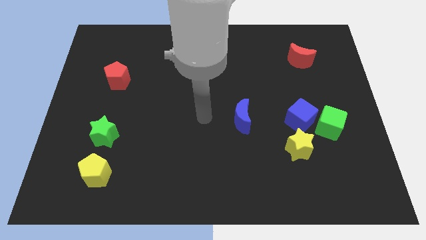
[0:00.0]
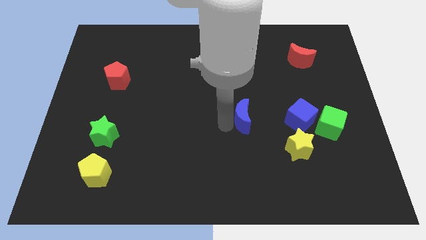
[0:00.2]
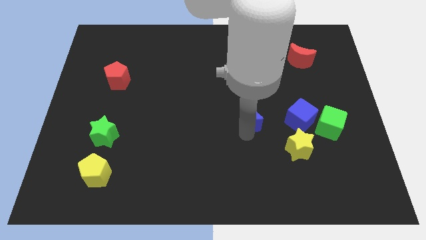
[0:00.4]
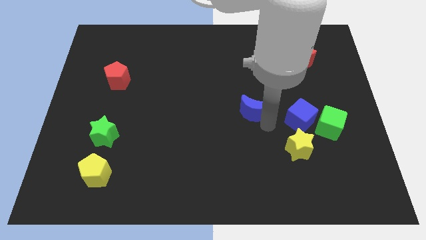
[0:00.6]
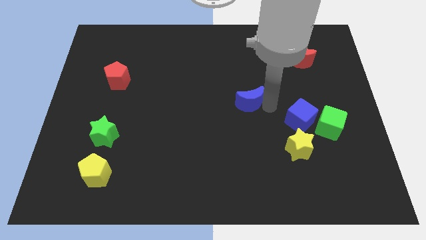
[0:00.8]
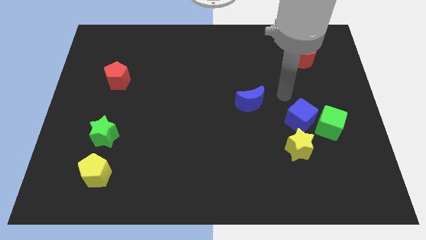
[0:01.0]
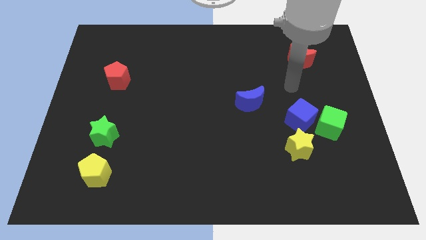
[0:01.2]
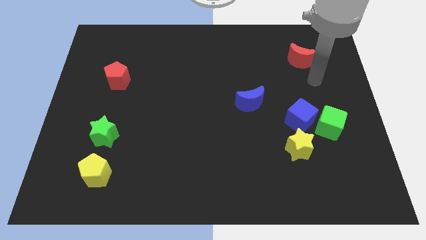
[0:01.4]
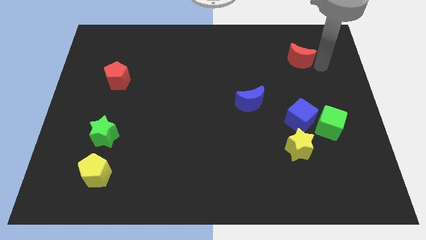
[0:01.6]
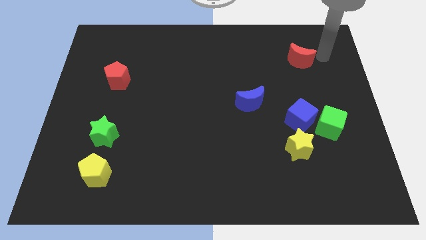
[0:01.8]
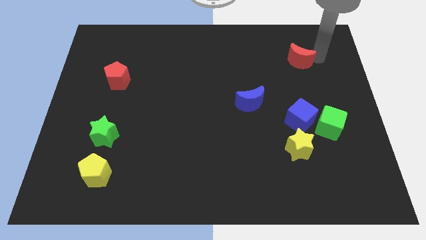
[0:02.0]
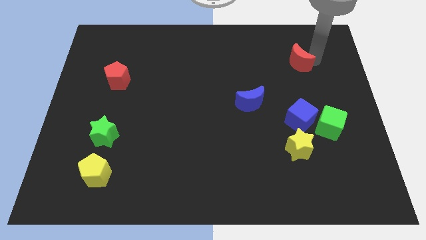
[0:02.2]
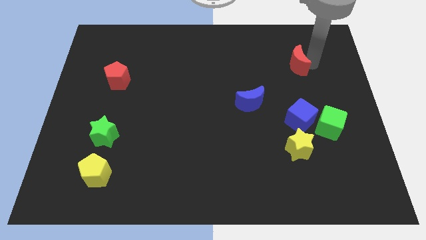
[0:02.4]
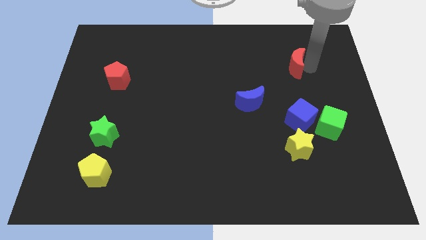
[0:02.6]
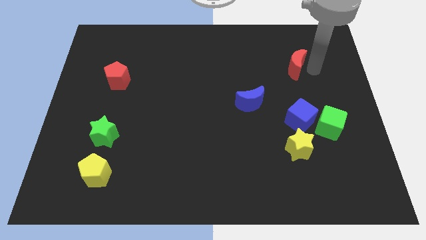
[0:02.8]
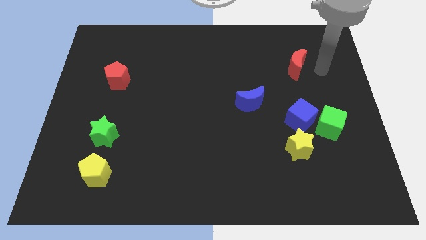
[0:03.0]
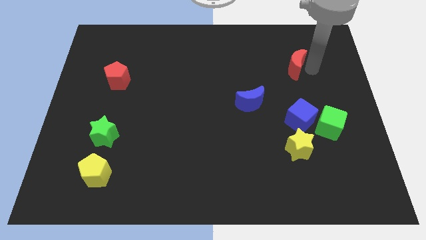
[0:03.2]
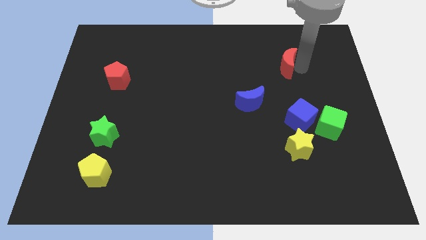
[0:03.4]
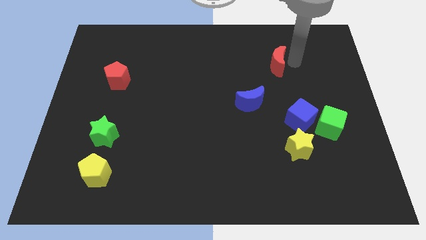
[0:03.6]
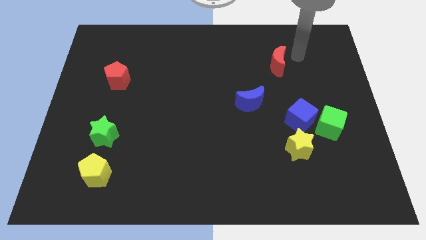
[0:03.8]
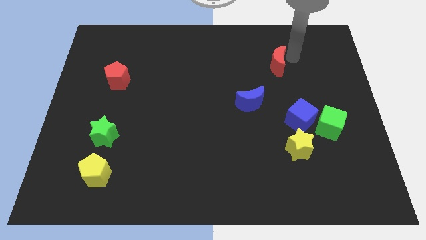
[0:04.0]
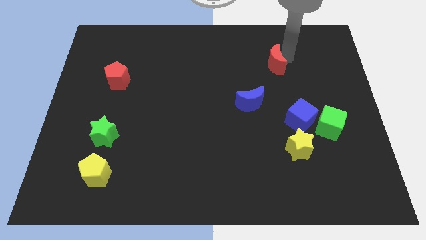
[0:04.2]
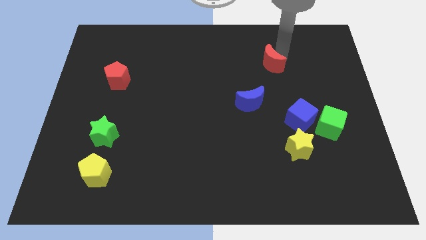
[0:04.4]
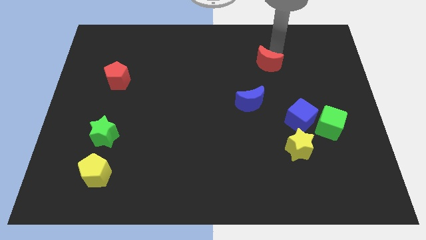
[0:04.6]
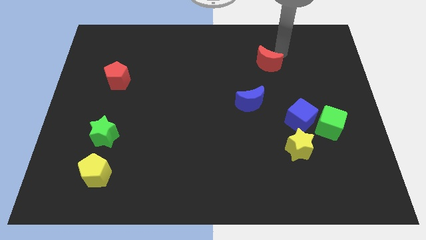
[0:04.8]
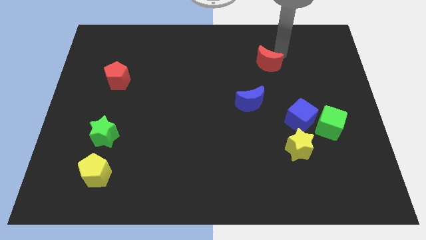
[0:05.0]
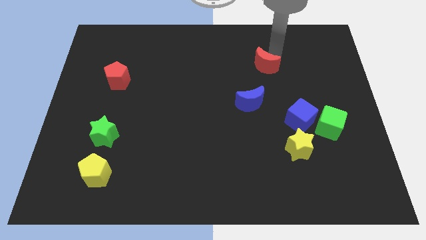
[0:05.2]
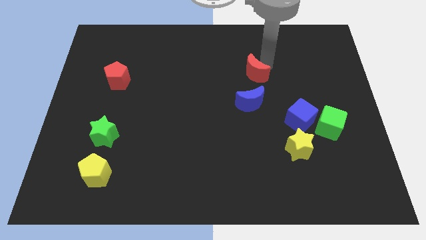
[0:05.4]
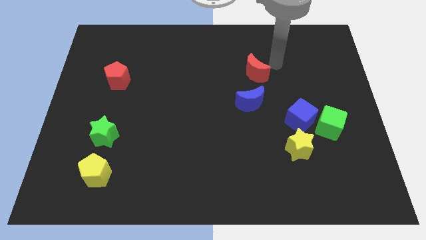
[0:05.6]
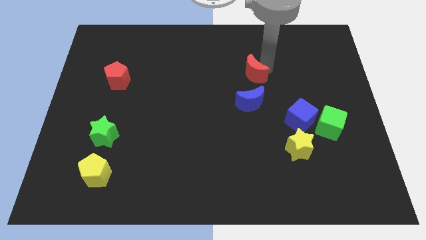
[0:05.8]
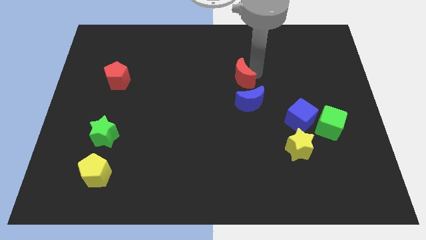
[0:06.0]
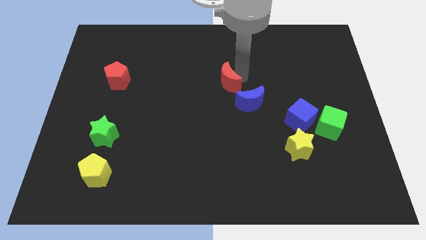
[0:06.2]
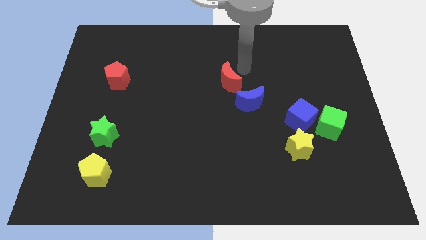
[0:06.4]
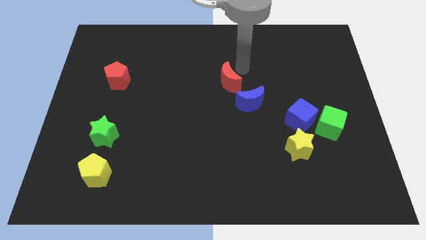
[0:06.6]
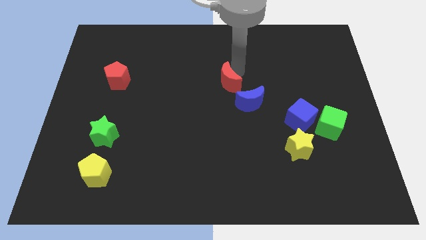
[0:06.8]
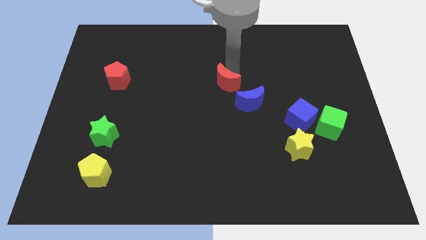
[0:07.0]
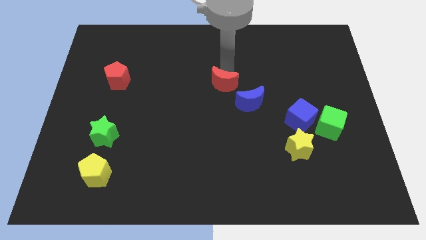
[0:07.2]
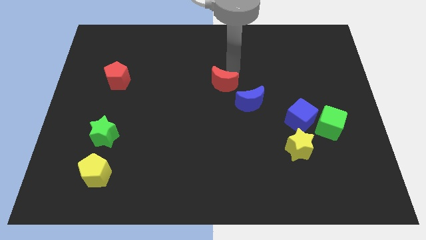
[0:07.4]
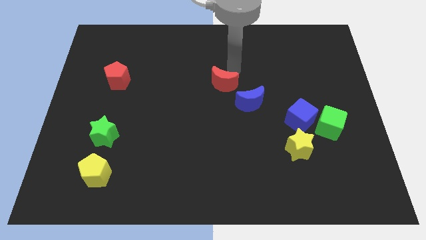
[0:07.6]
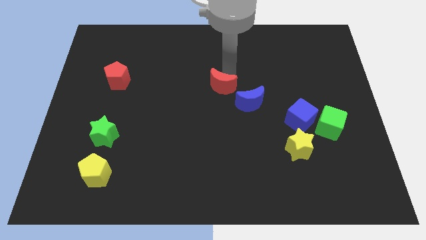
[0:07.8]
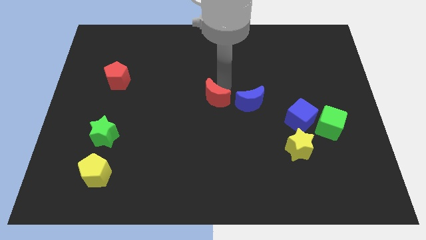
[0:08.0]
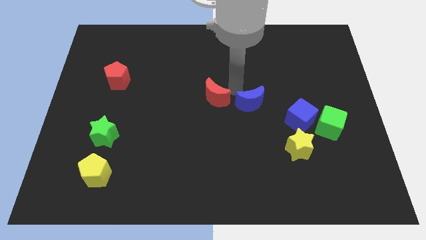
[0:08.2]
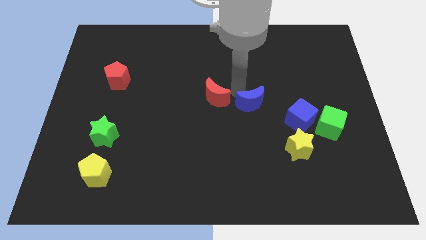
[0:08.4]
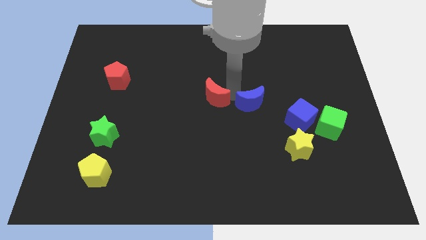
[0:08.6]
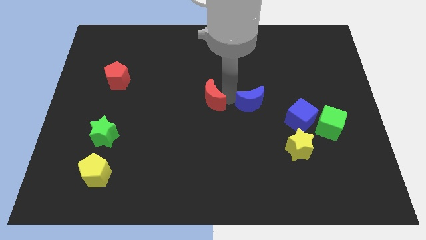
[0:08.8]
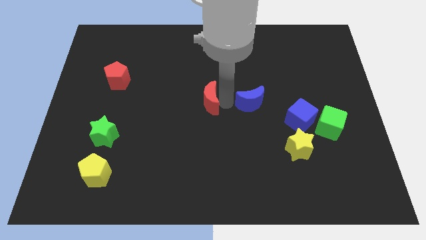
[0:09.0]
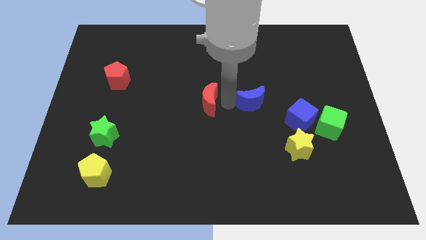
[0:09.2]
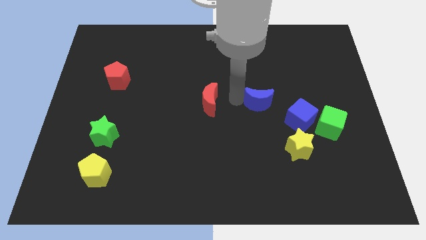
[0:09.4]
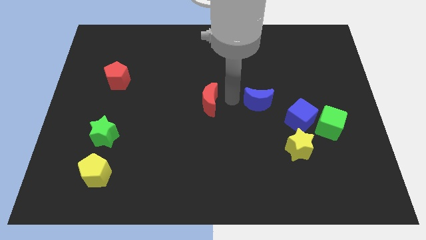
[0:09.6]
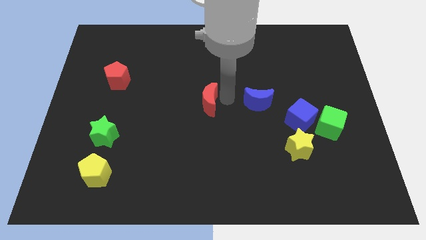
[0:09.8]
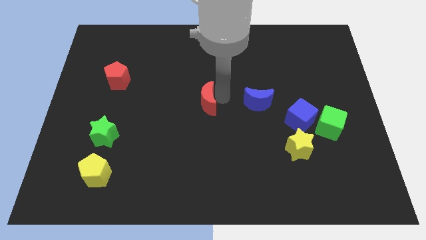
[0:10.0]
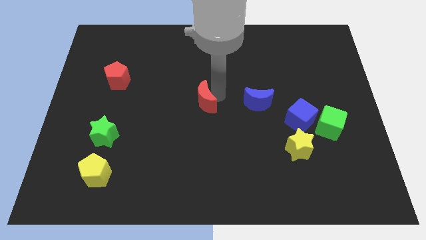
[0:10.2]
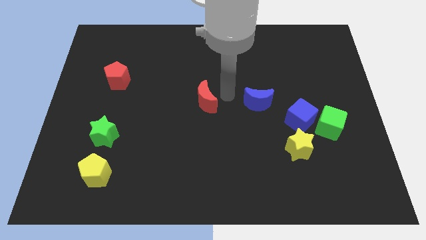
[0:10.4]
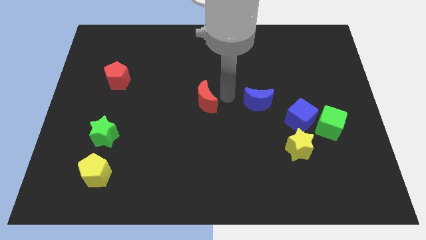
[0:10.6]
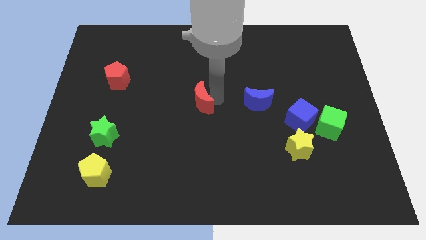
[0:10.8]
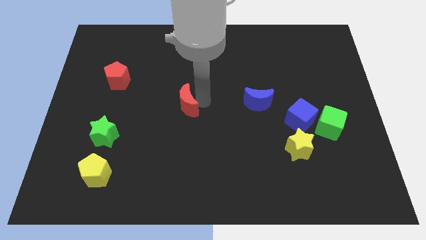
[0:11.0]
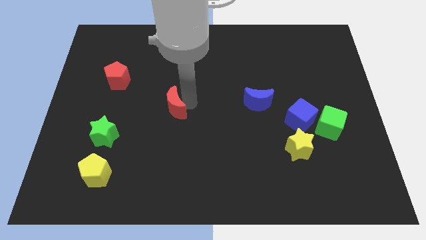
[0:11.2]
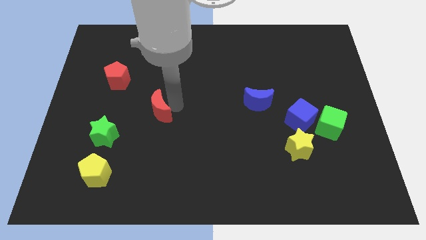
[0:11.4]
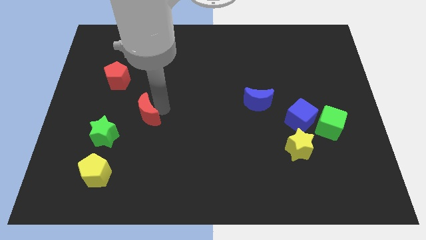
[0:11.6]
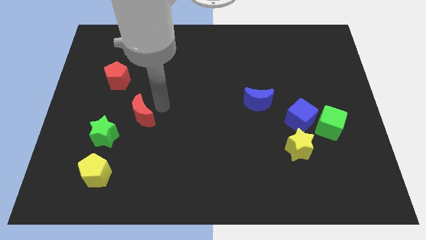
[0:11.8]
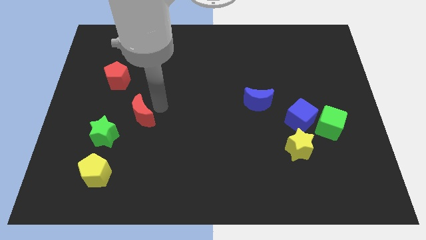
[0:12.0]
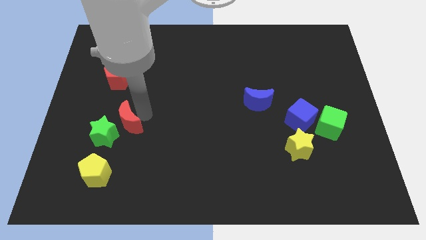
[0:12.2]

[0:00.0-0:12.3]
put the red moon to the green star

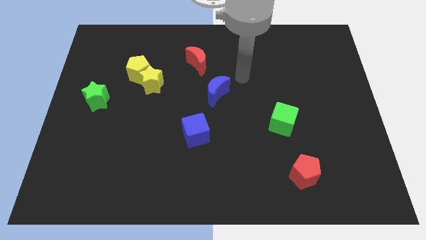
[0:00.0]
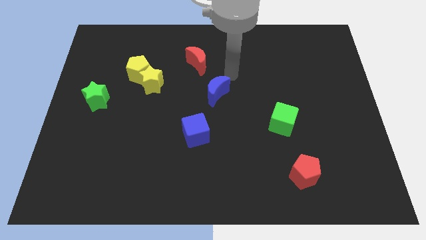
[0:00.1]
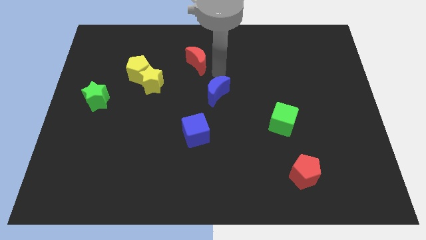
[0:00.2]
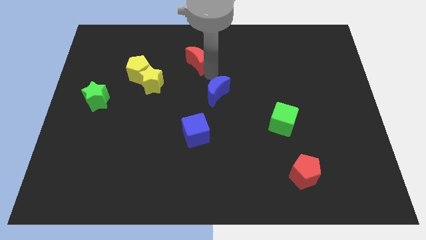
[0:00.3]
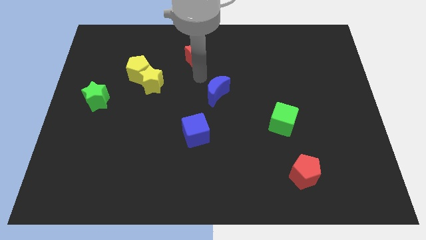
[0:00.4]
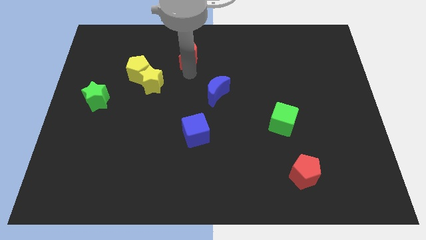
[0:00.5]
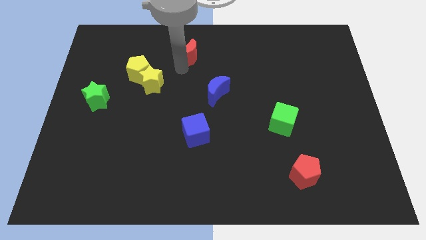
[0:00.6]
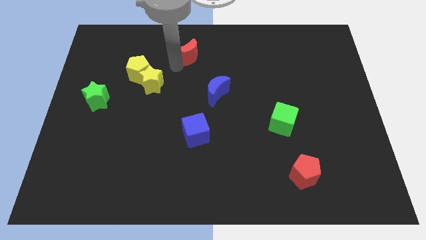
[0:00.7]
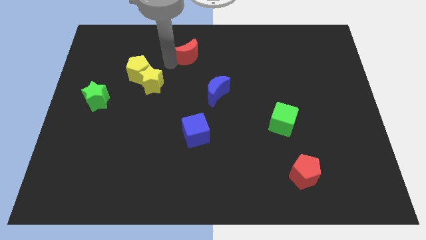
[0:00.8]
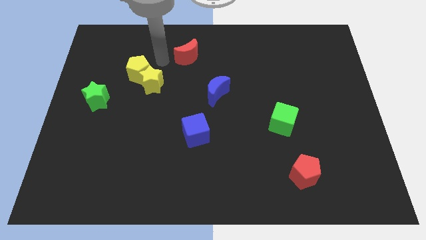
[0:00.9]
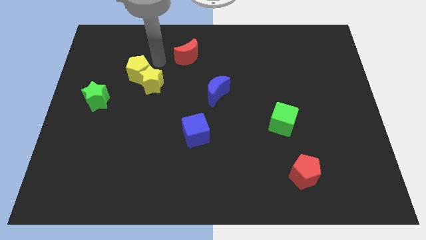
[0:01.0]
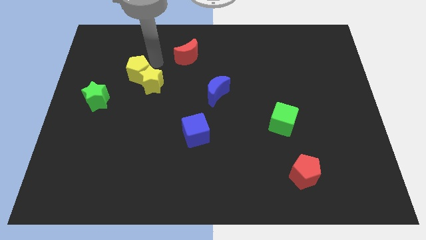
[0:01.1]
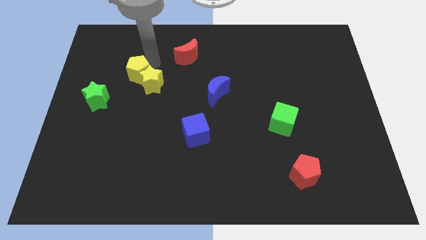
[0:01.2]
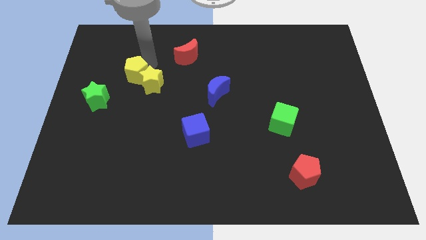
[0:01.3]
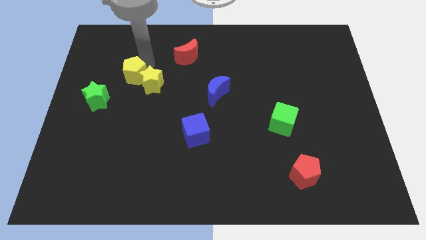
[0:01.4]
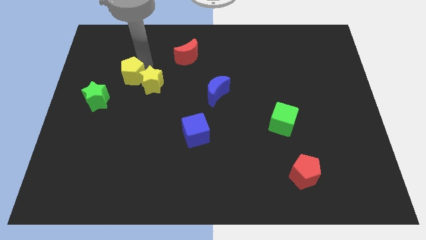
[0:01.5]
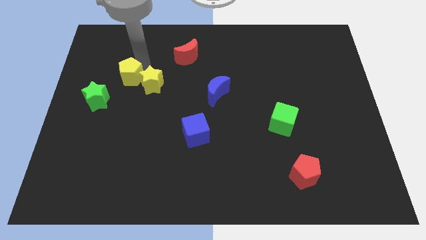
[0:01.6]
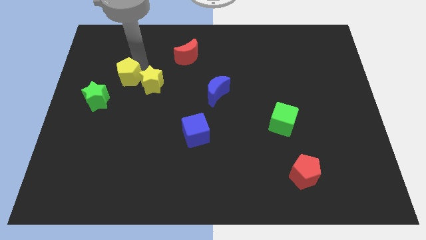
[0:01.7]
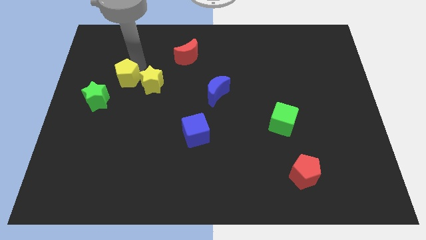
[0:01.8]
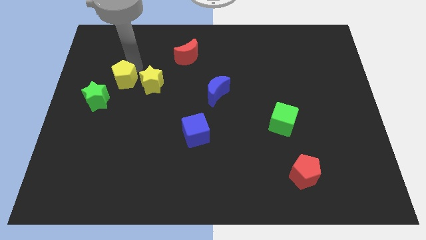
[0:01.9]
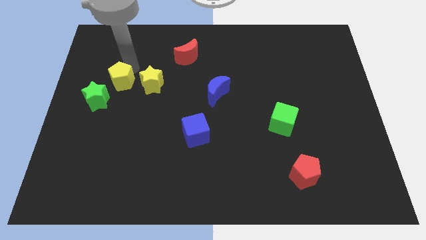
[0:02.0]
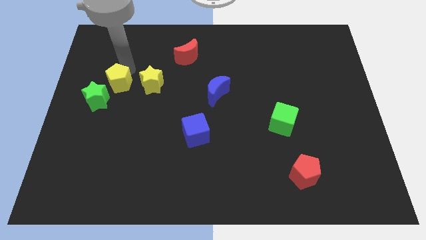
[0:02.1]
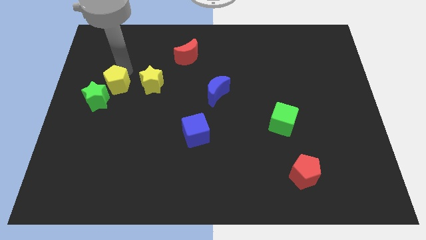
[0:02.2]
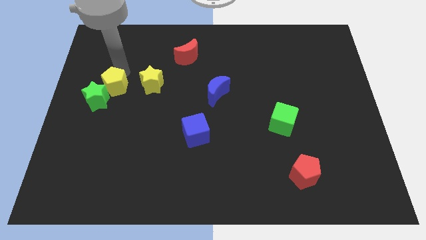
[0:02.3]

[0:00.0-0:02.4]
push the yellow pentagon to the green star
